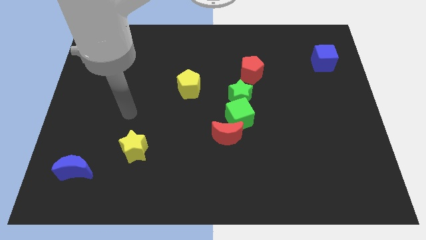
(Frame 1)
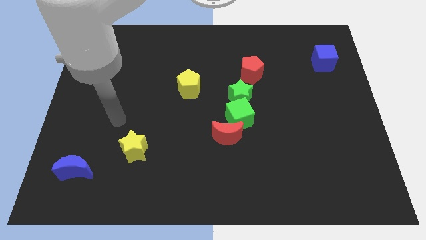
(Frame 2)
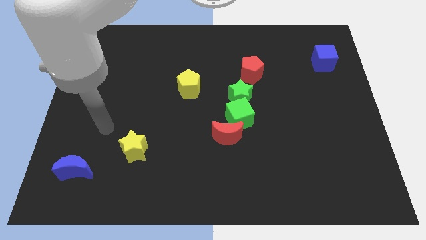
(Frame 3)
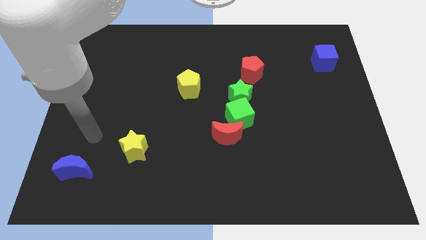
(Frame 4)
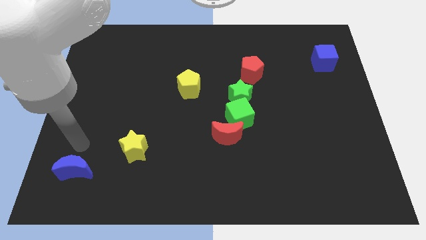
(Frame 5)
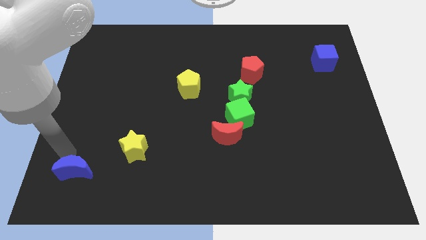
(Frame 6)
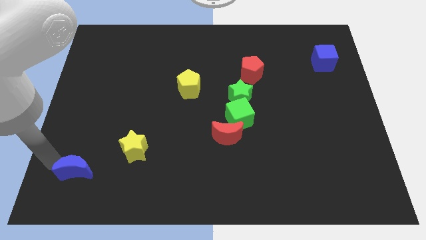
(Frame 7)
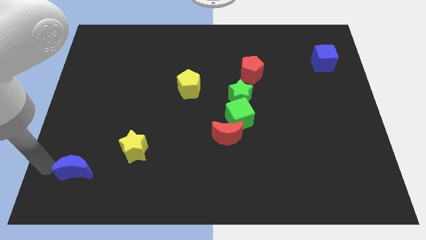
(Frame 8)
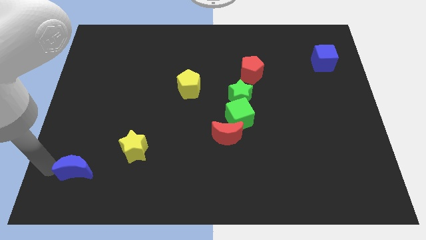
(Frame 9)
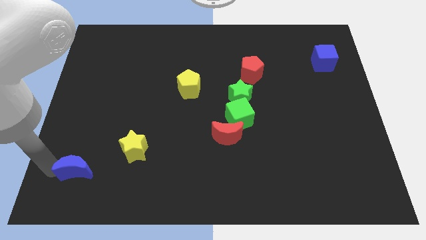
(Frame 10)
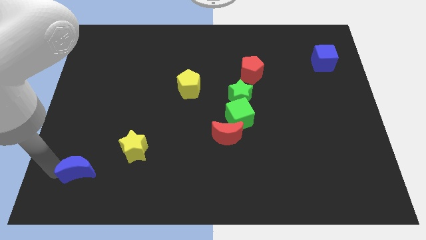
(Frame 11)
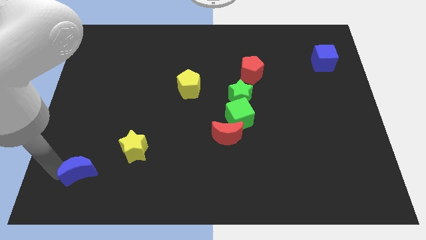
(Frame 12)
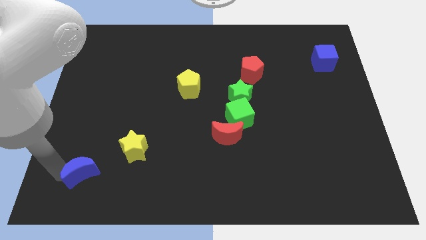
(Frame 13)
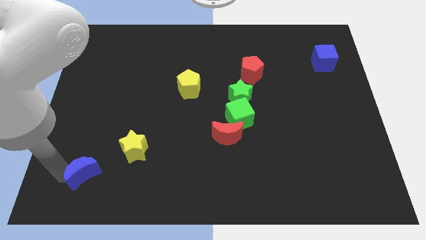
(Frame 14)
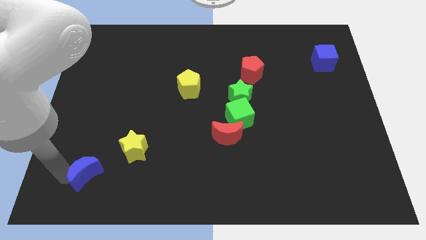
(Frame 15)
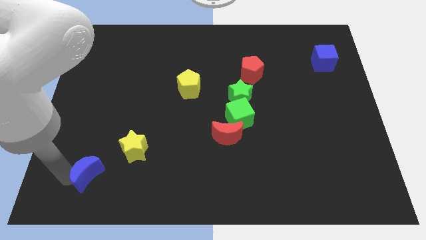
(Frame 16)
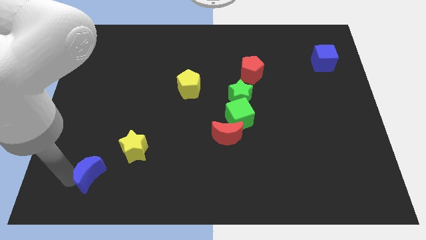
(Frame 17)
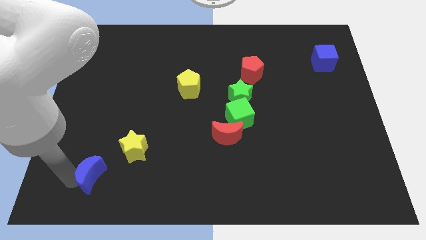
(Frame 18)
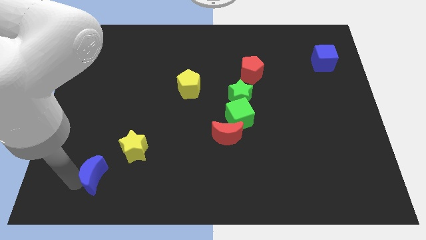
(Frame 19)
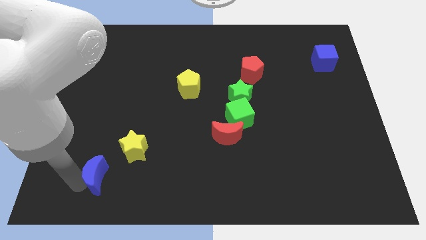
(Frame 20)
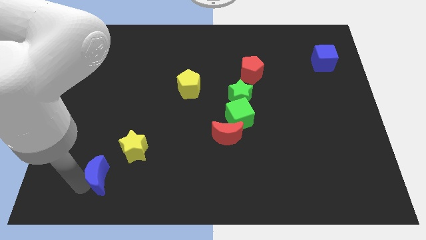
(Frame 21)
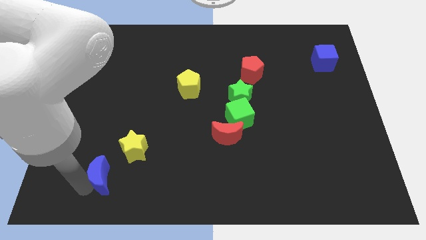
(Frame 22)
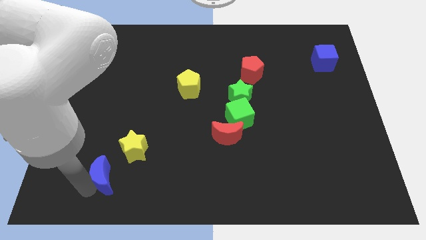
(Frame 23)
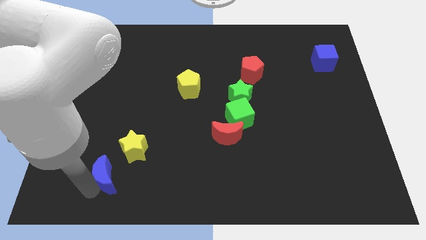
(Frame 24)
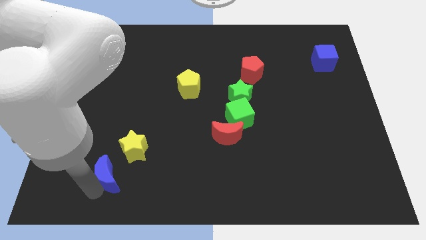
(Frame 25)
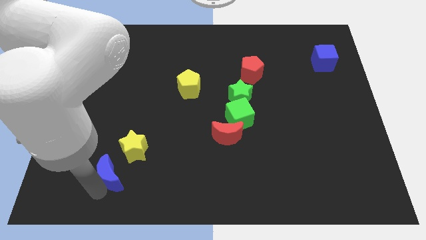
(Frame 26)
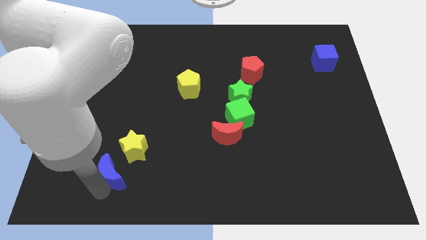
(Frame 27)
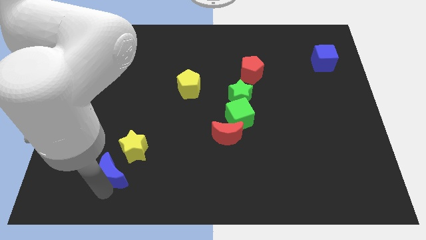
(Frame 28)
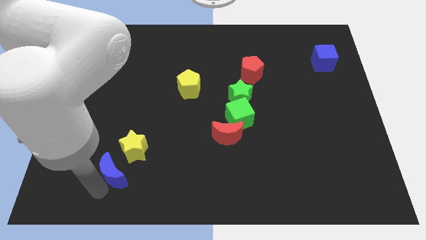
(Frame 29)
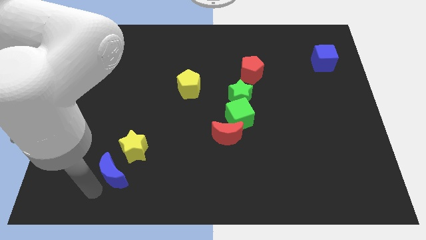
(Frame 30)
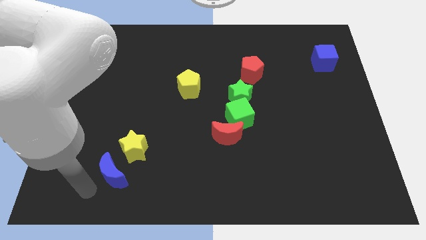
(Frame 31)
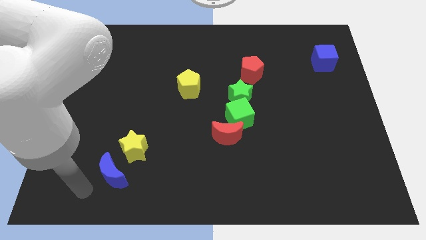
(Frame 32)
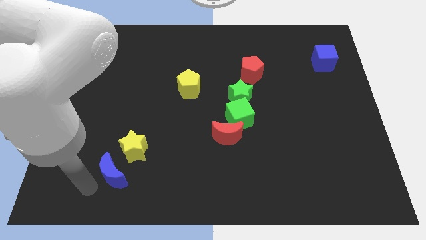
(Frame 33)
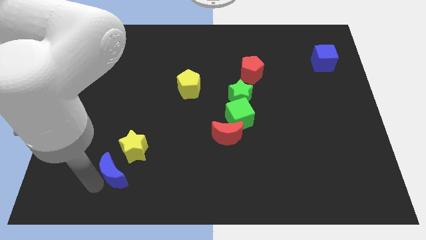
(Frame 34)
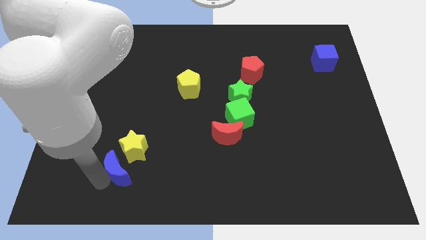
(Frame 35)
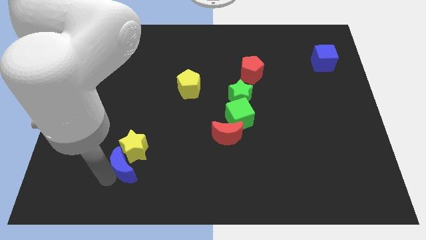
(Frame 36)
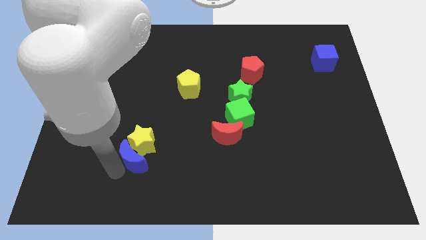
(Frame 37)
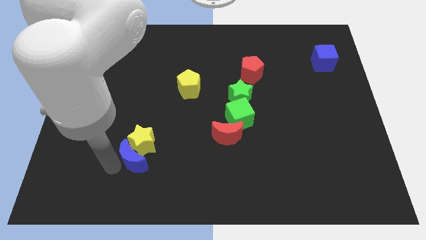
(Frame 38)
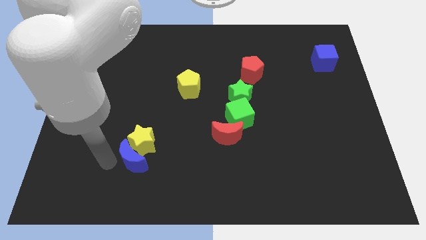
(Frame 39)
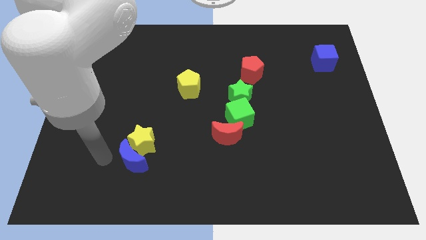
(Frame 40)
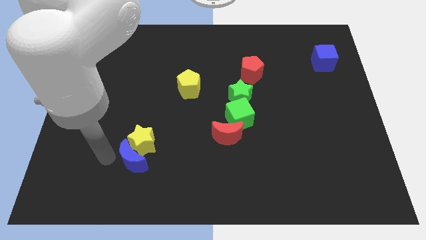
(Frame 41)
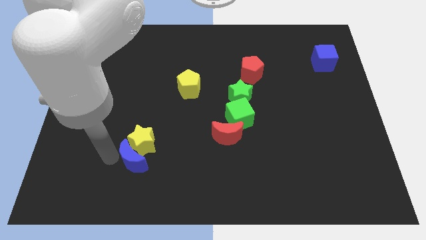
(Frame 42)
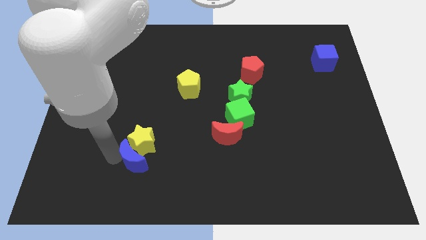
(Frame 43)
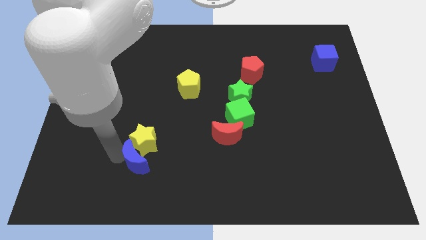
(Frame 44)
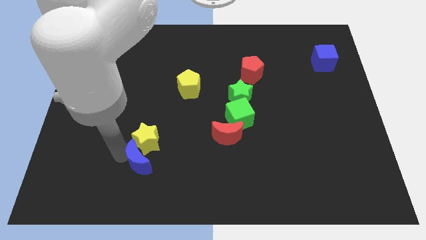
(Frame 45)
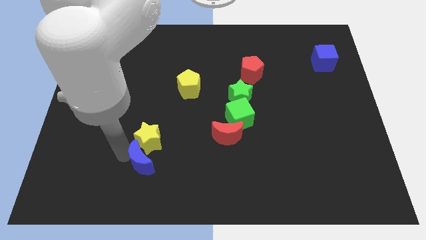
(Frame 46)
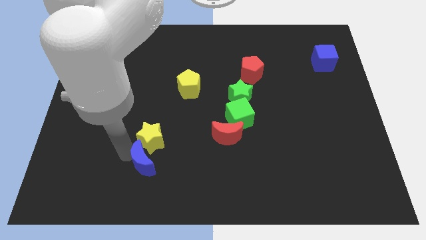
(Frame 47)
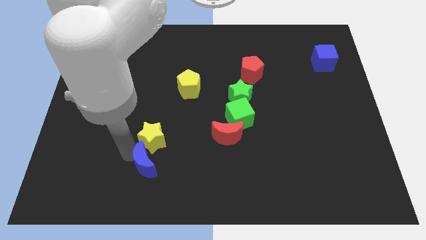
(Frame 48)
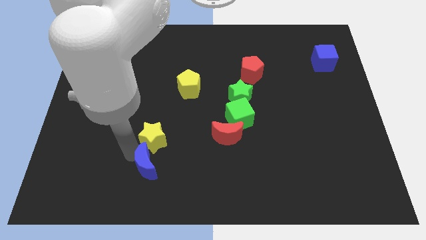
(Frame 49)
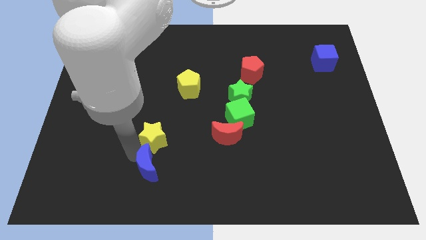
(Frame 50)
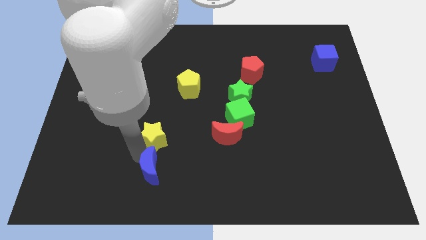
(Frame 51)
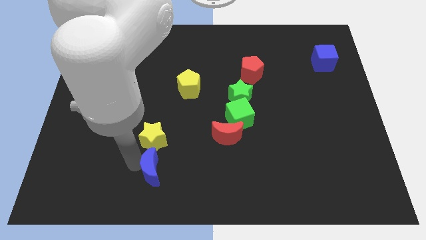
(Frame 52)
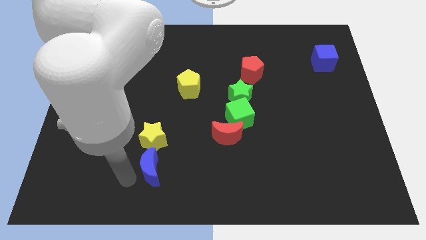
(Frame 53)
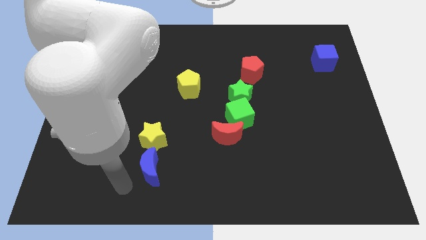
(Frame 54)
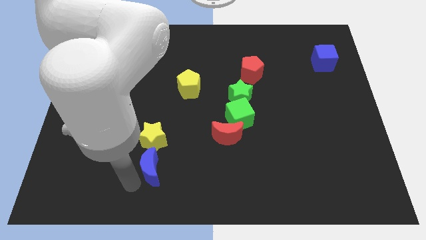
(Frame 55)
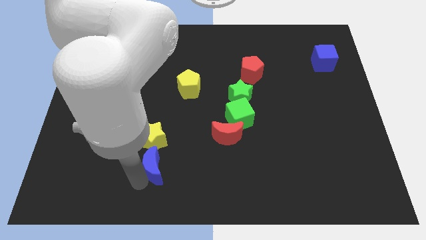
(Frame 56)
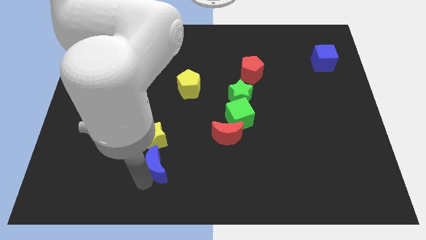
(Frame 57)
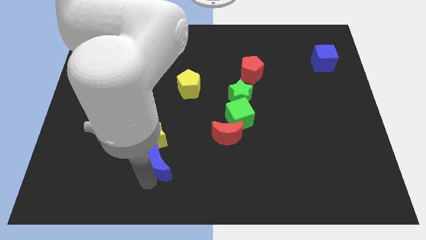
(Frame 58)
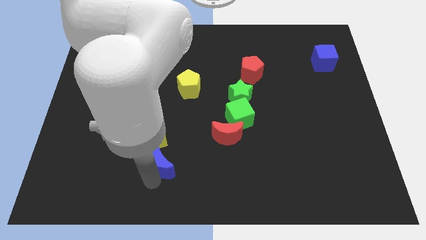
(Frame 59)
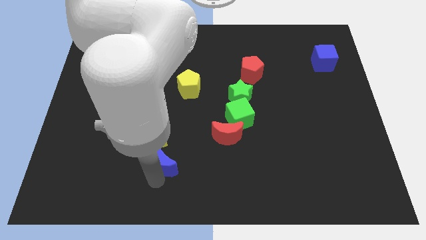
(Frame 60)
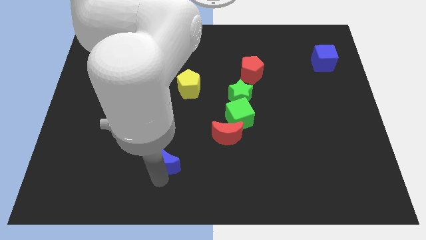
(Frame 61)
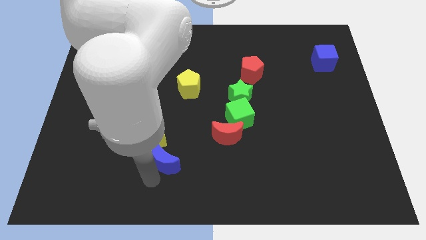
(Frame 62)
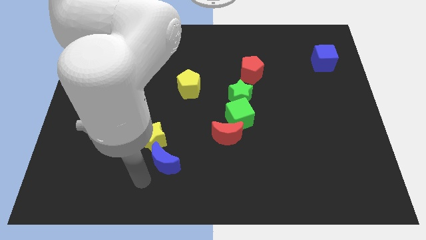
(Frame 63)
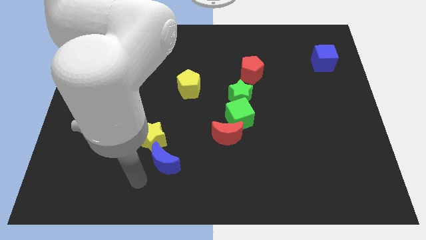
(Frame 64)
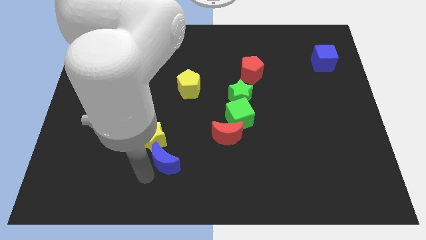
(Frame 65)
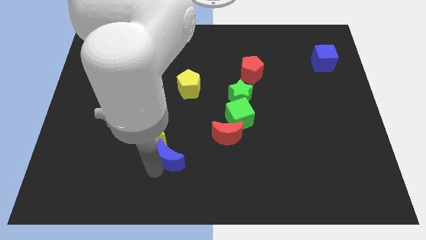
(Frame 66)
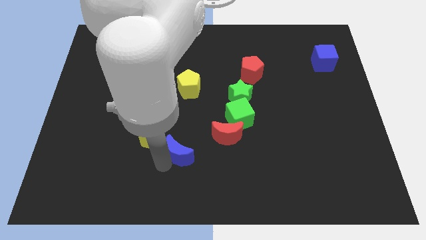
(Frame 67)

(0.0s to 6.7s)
slide the blue moon right of the yellow star

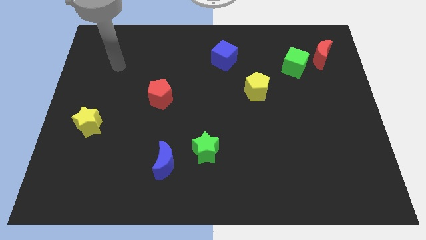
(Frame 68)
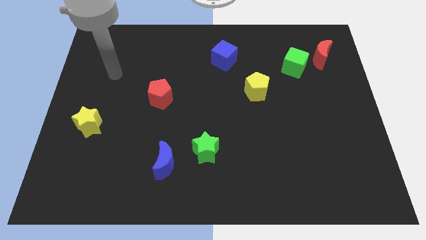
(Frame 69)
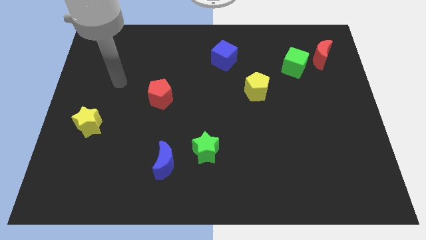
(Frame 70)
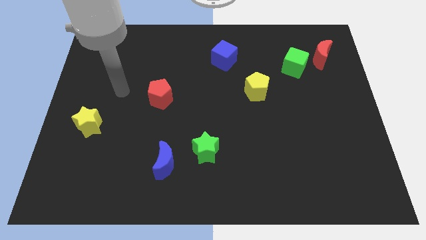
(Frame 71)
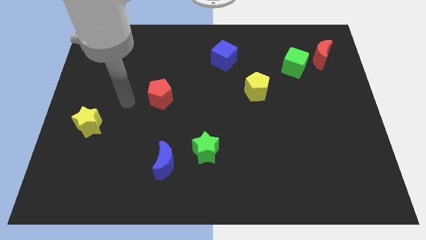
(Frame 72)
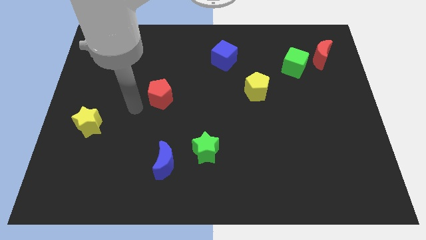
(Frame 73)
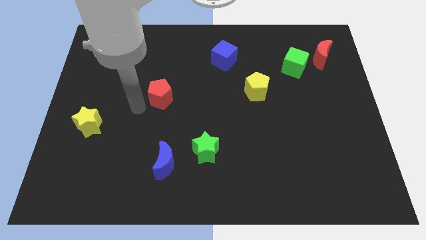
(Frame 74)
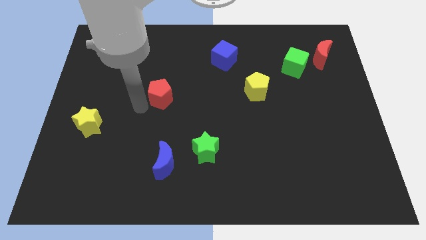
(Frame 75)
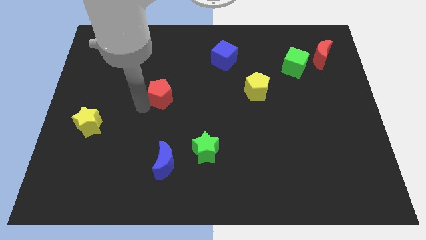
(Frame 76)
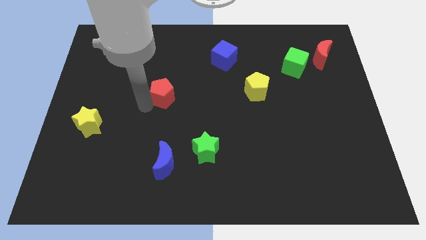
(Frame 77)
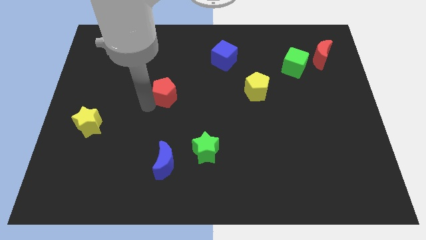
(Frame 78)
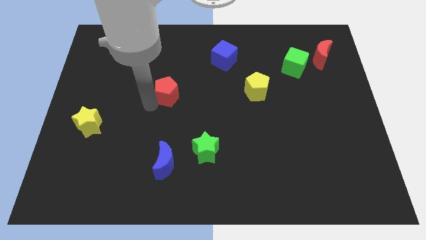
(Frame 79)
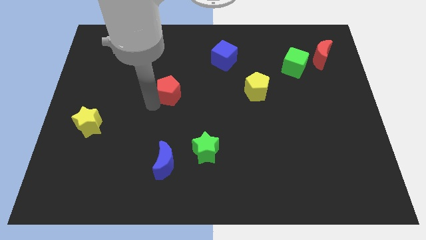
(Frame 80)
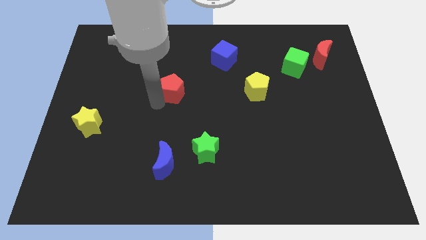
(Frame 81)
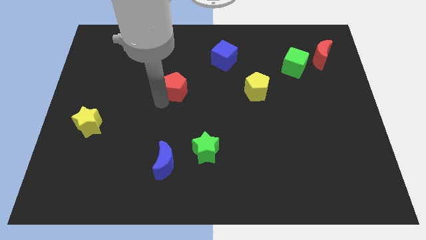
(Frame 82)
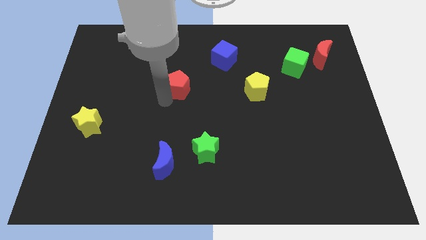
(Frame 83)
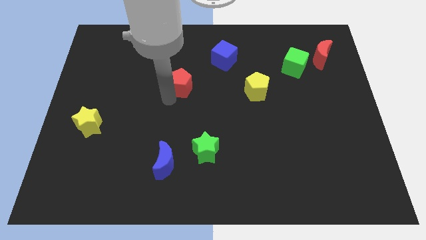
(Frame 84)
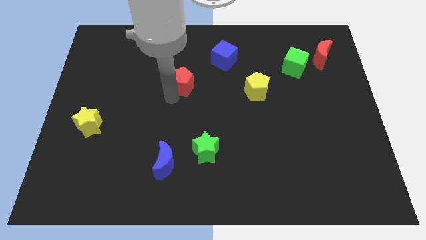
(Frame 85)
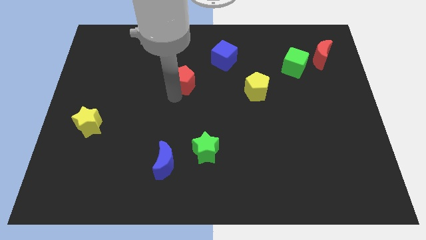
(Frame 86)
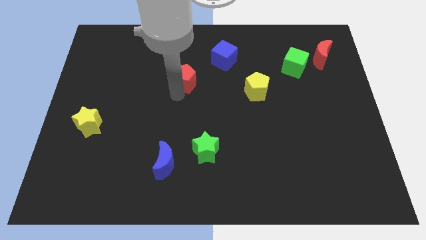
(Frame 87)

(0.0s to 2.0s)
put the red pentagon to the bottom left side of the blue cube
